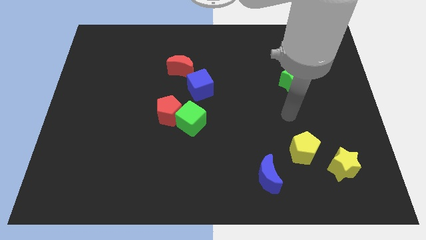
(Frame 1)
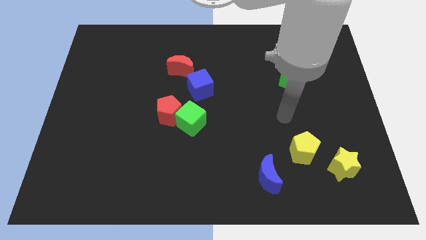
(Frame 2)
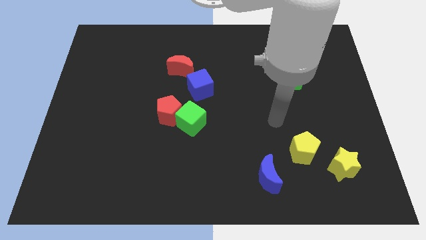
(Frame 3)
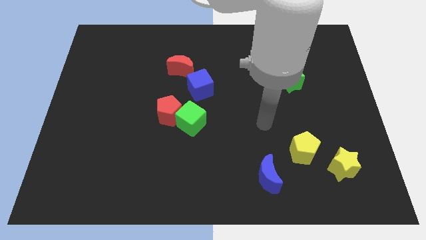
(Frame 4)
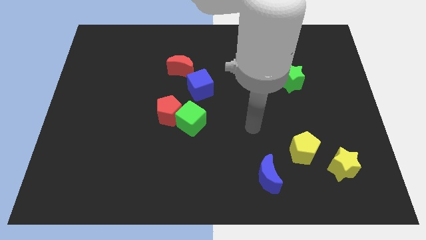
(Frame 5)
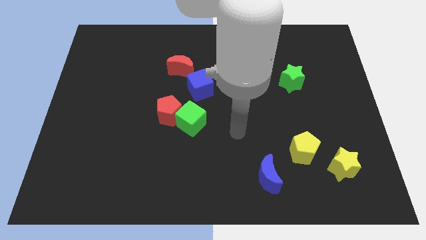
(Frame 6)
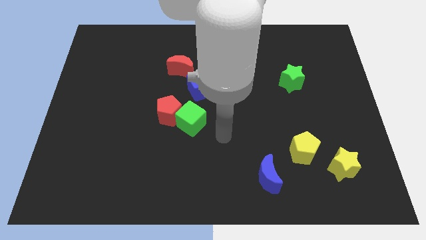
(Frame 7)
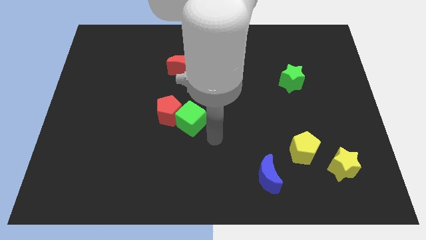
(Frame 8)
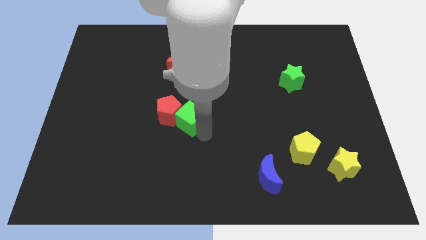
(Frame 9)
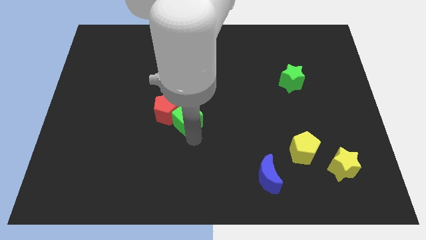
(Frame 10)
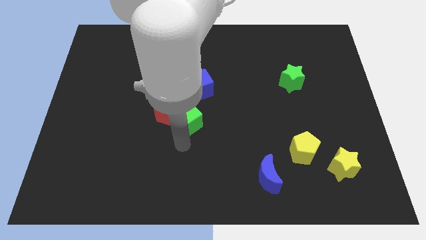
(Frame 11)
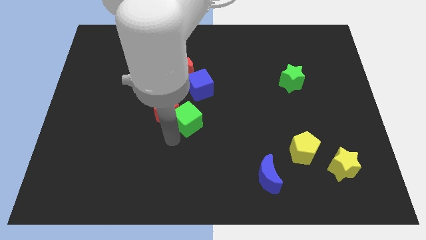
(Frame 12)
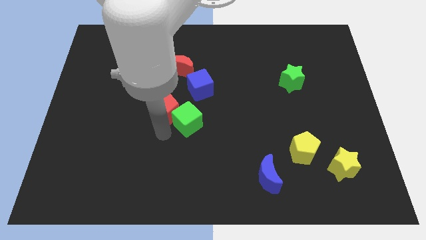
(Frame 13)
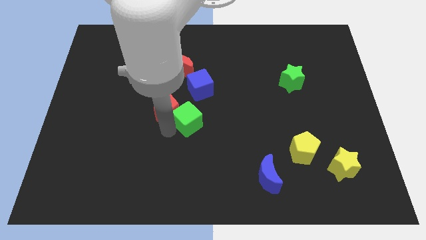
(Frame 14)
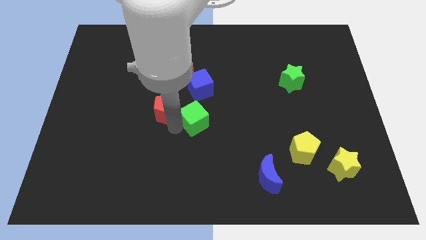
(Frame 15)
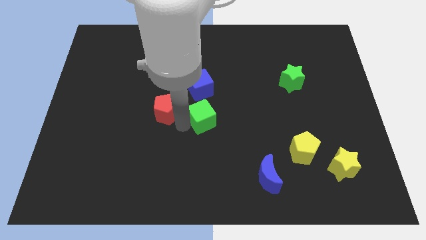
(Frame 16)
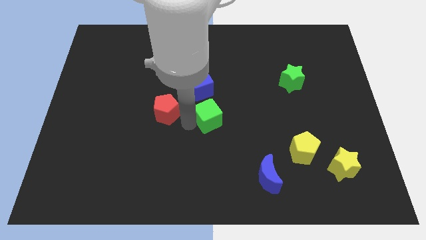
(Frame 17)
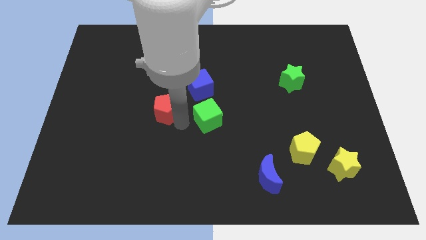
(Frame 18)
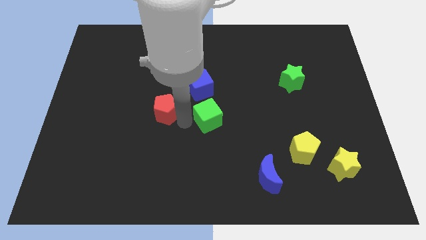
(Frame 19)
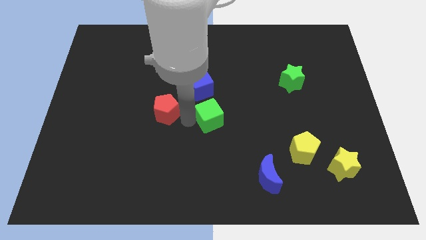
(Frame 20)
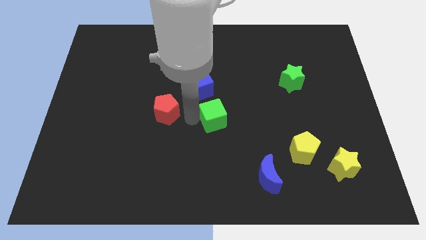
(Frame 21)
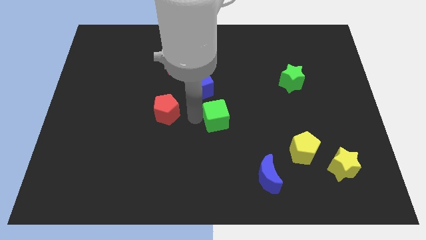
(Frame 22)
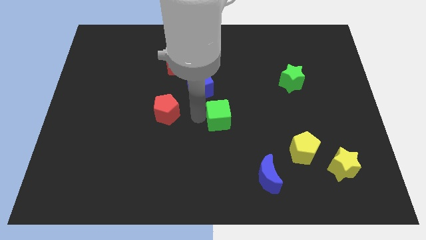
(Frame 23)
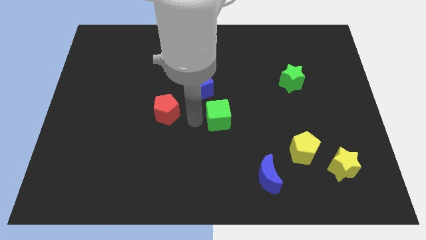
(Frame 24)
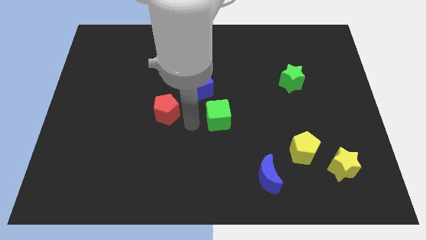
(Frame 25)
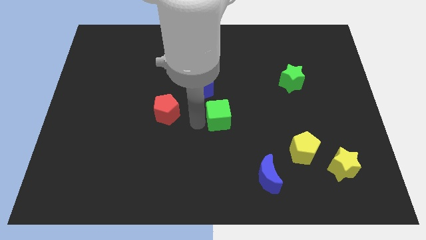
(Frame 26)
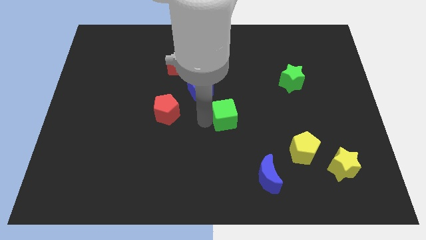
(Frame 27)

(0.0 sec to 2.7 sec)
slightly push the green cube to the right

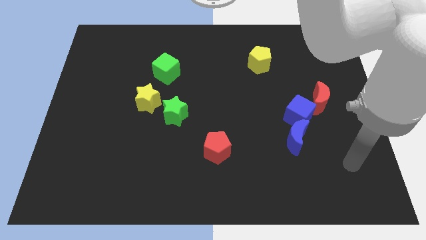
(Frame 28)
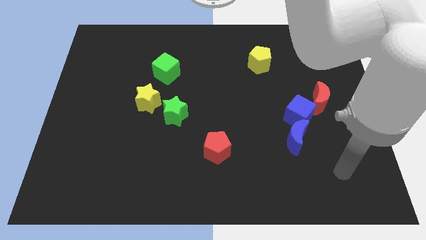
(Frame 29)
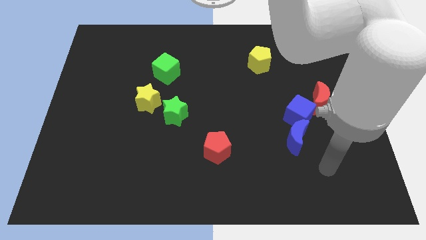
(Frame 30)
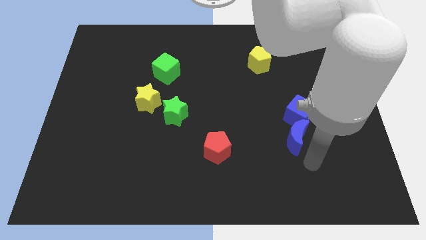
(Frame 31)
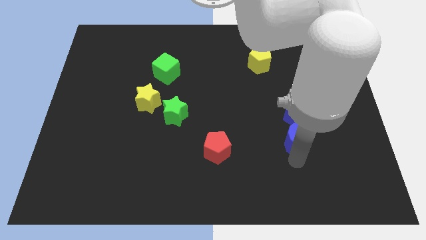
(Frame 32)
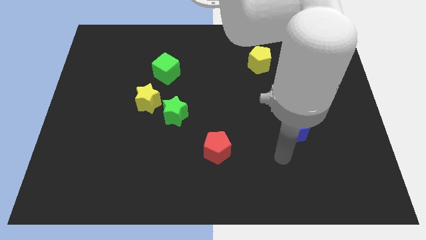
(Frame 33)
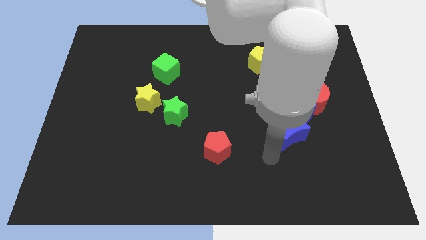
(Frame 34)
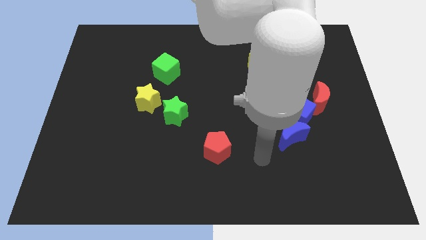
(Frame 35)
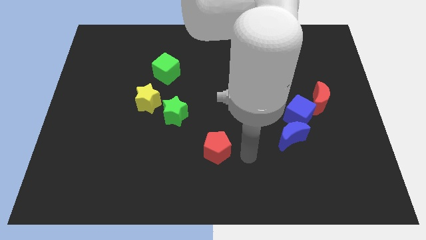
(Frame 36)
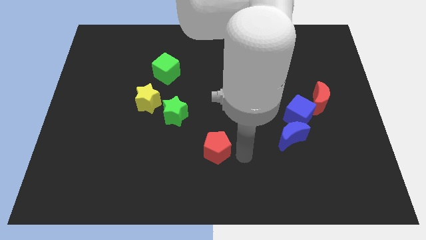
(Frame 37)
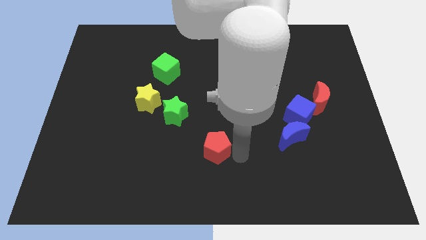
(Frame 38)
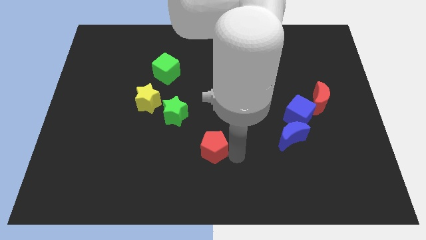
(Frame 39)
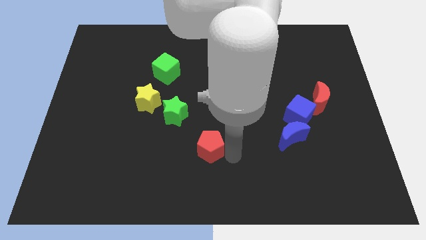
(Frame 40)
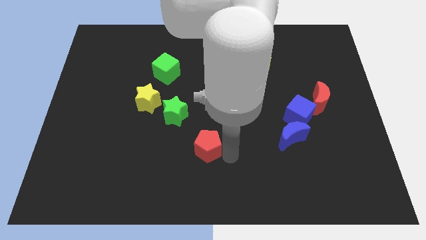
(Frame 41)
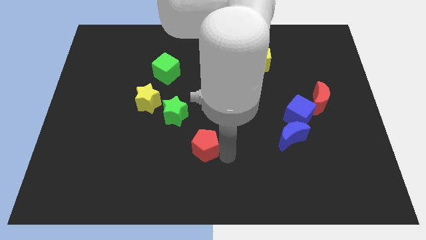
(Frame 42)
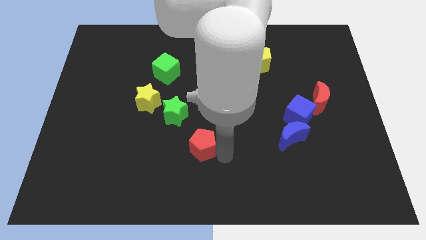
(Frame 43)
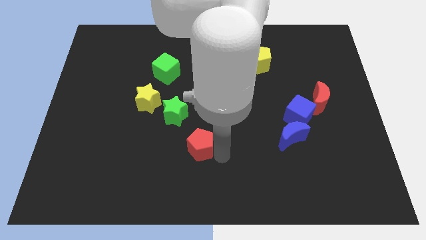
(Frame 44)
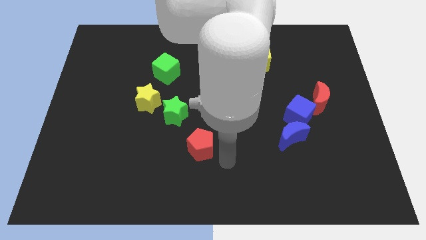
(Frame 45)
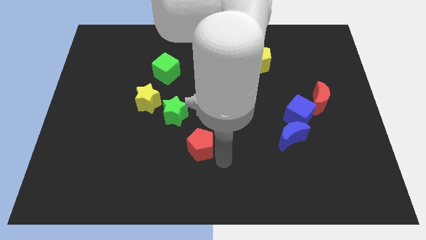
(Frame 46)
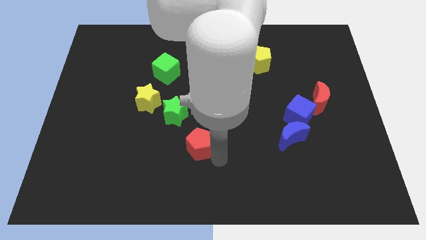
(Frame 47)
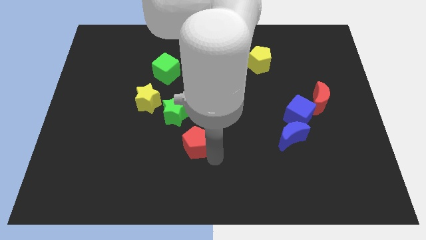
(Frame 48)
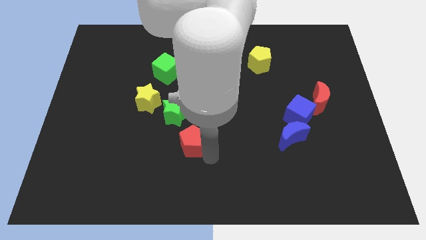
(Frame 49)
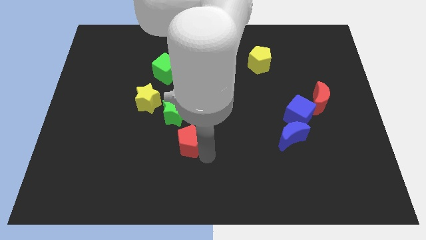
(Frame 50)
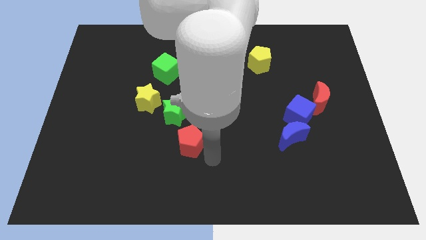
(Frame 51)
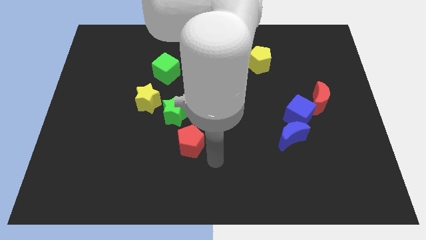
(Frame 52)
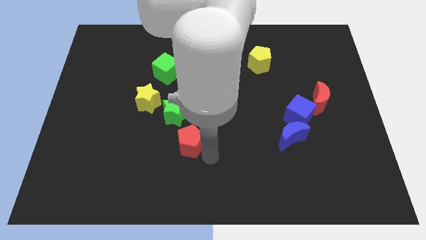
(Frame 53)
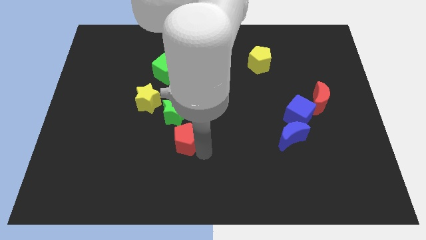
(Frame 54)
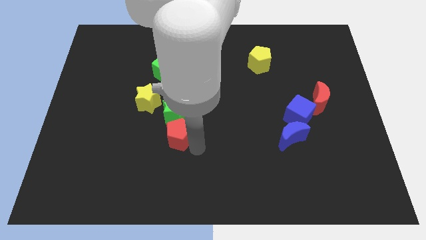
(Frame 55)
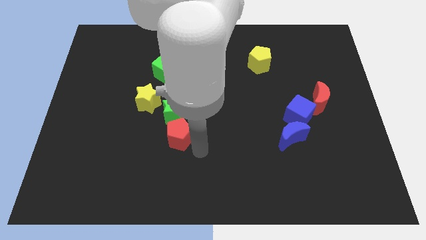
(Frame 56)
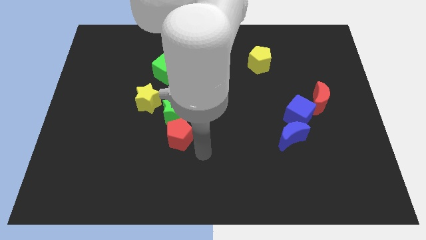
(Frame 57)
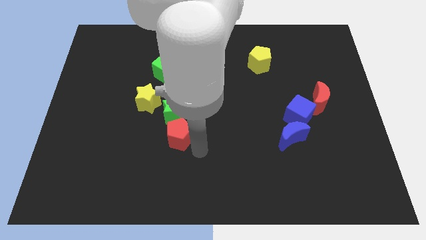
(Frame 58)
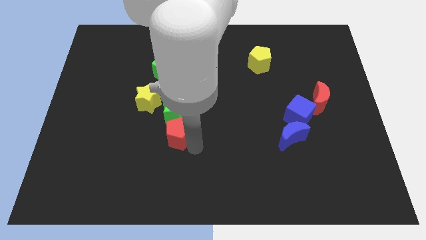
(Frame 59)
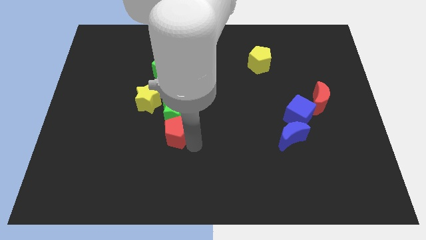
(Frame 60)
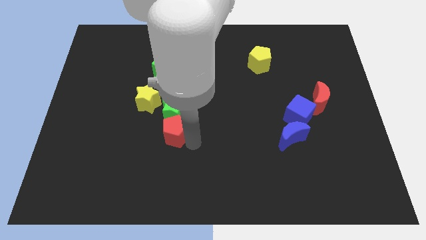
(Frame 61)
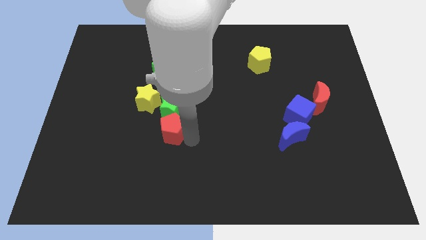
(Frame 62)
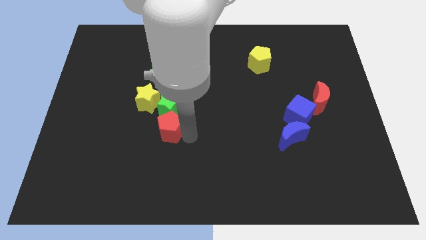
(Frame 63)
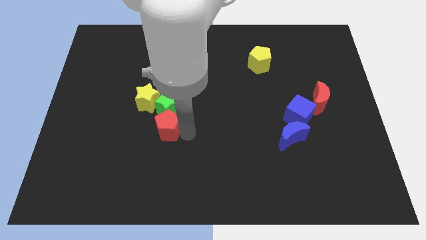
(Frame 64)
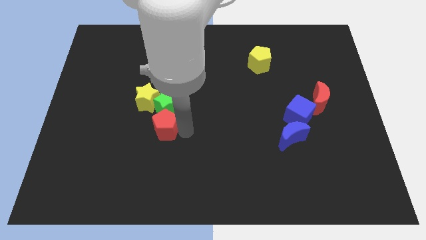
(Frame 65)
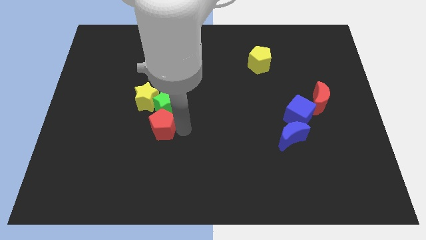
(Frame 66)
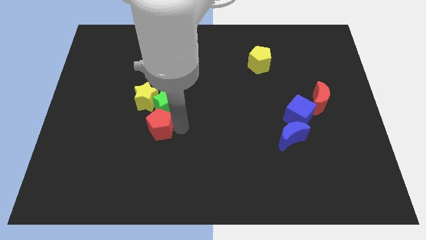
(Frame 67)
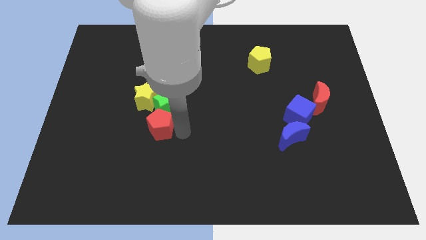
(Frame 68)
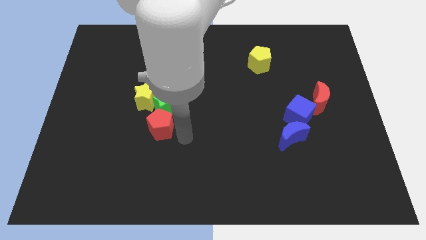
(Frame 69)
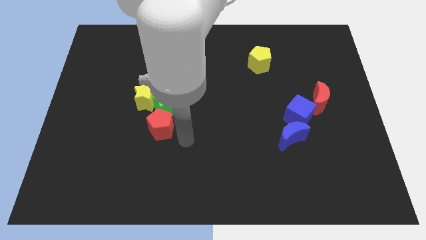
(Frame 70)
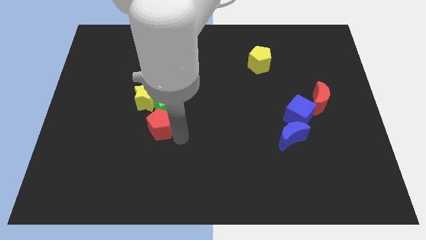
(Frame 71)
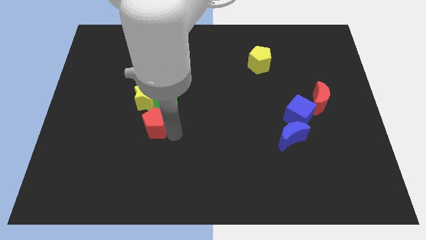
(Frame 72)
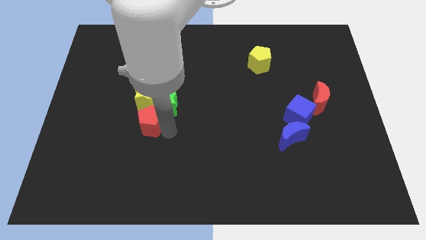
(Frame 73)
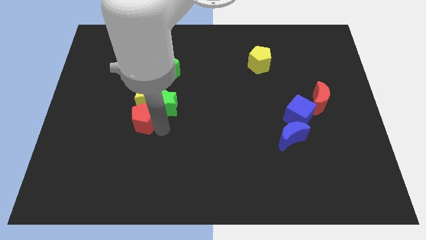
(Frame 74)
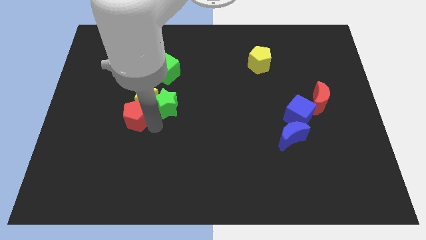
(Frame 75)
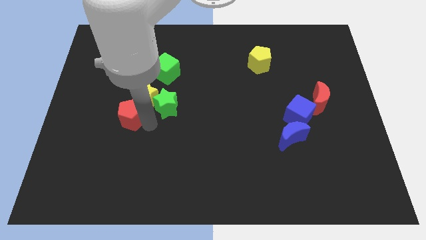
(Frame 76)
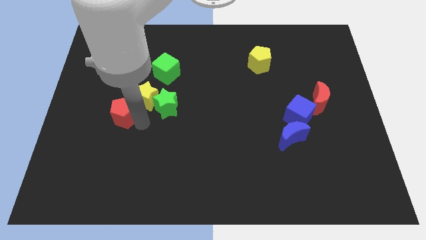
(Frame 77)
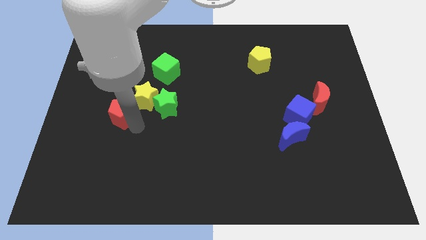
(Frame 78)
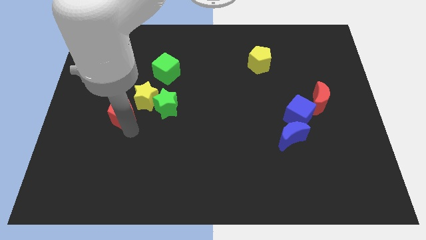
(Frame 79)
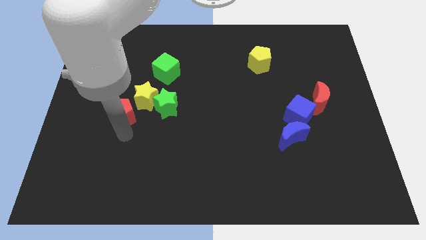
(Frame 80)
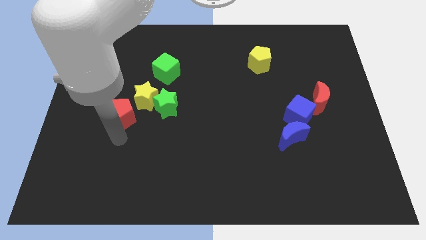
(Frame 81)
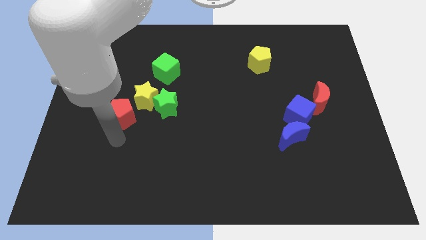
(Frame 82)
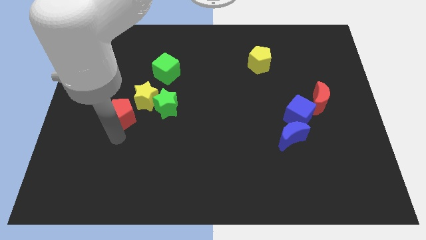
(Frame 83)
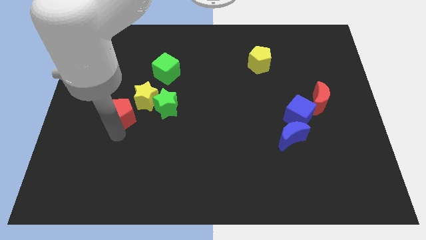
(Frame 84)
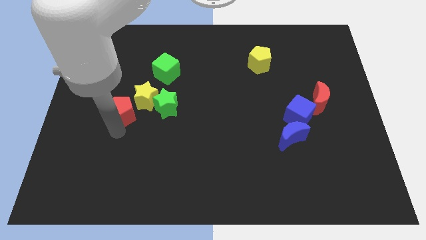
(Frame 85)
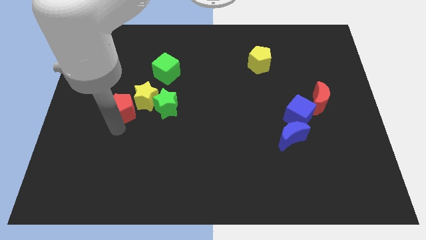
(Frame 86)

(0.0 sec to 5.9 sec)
push the red pentagon up and to the left
